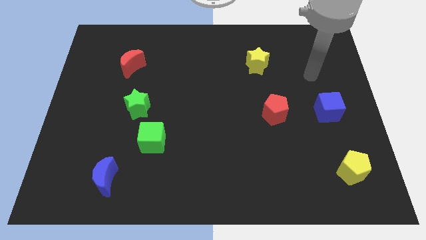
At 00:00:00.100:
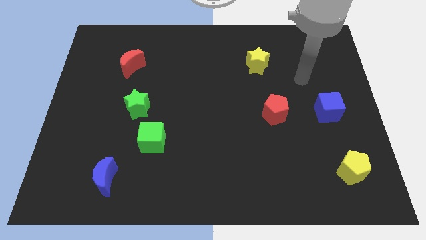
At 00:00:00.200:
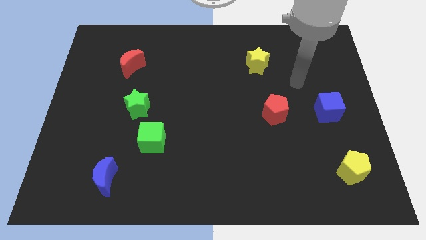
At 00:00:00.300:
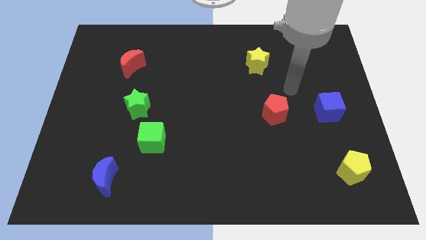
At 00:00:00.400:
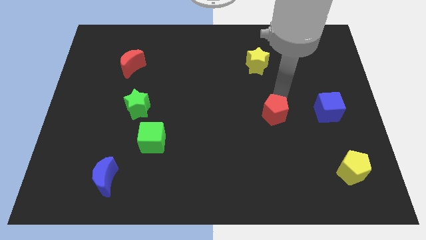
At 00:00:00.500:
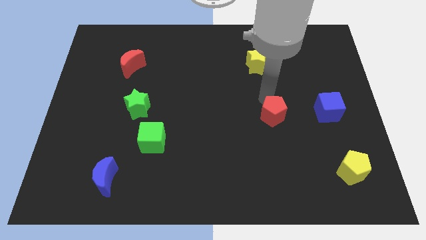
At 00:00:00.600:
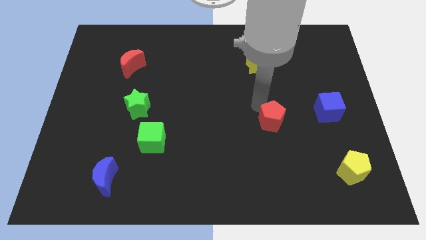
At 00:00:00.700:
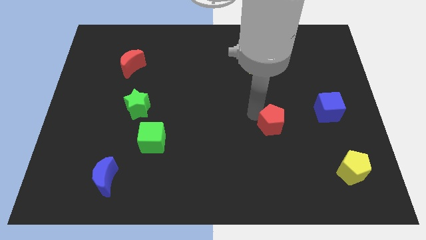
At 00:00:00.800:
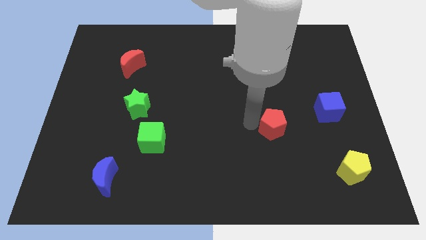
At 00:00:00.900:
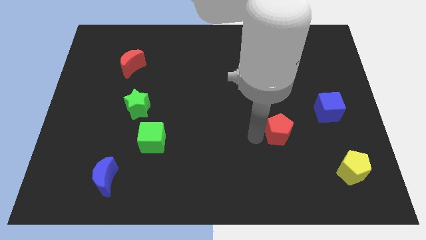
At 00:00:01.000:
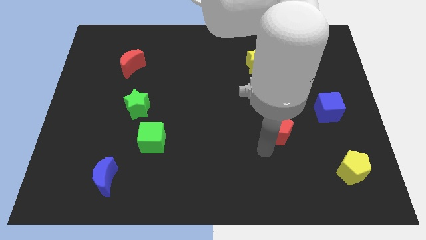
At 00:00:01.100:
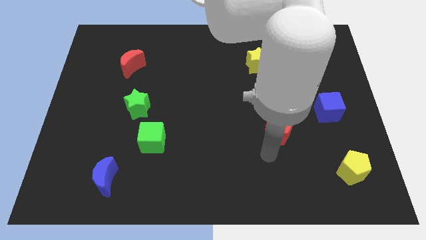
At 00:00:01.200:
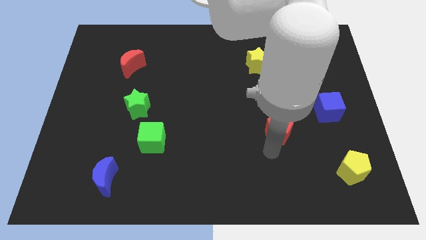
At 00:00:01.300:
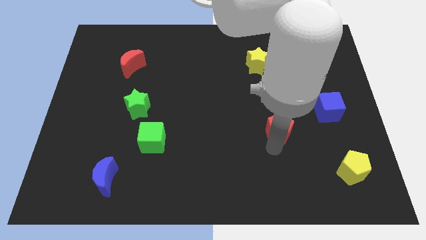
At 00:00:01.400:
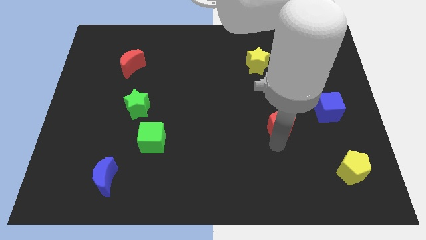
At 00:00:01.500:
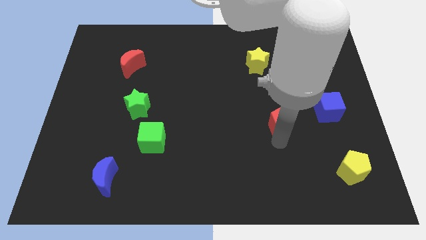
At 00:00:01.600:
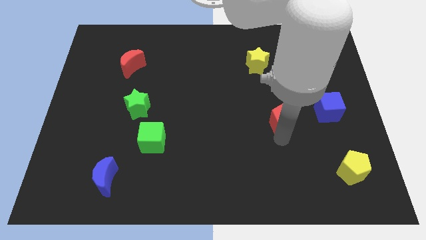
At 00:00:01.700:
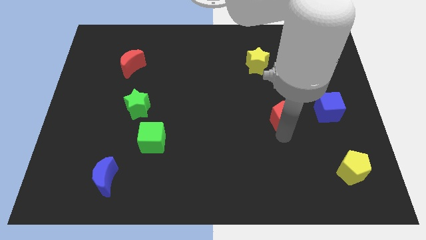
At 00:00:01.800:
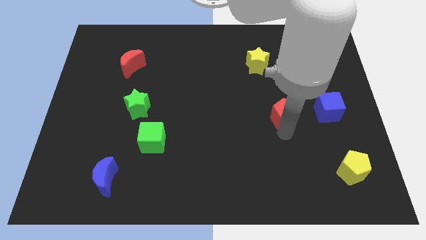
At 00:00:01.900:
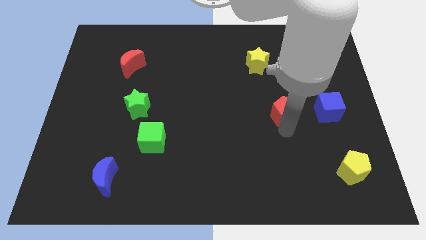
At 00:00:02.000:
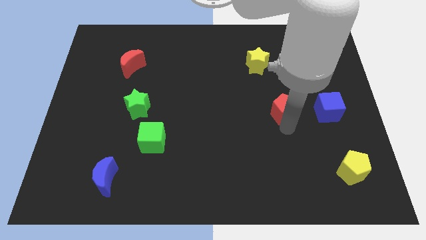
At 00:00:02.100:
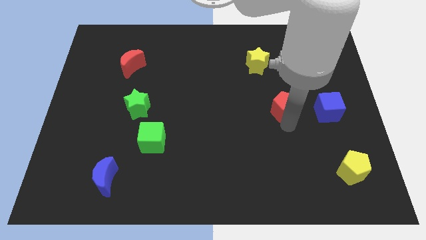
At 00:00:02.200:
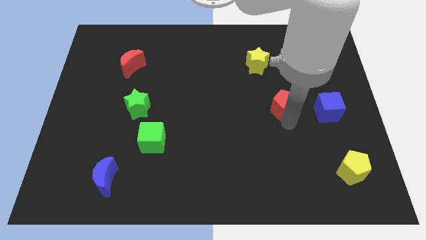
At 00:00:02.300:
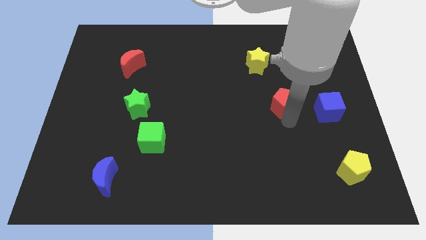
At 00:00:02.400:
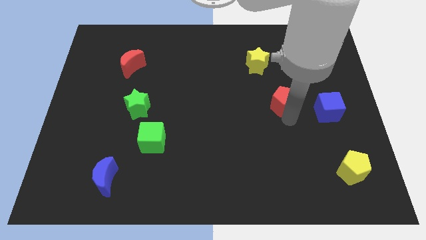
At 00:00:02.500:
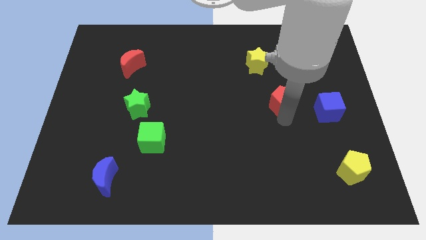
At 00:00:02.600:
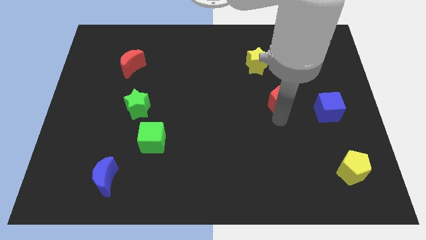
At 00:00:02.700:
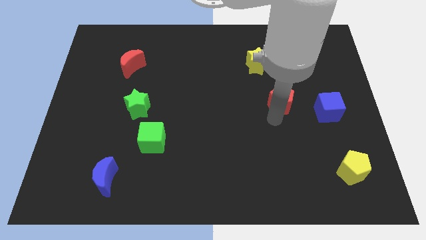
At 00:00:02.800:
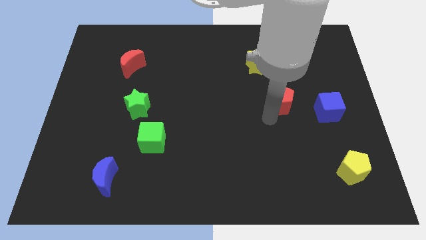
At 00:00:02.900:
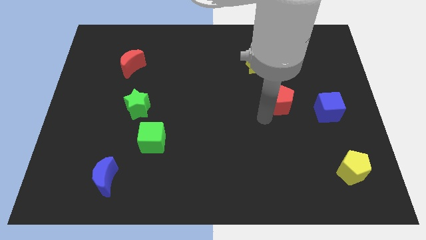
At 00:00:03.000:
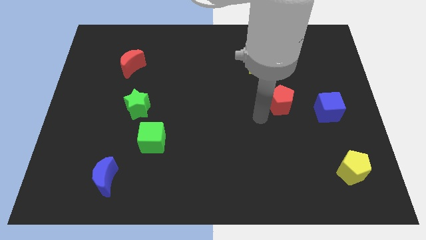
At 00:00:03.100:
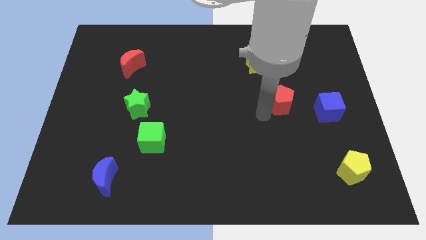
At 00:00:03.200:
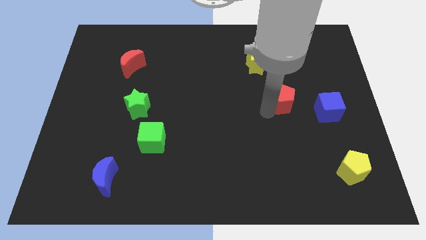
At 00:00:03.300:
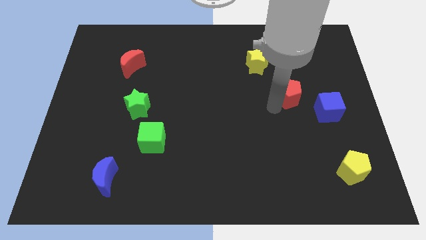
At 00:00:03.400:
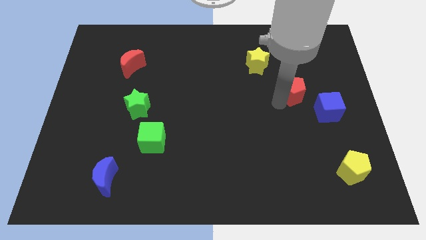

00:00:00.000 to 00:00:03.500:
move the red pentagon a bit up and then to the right

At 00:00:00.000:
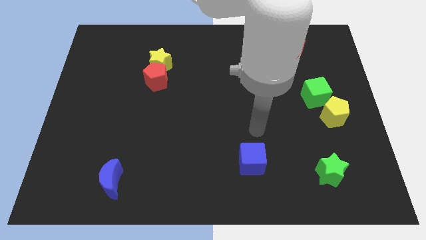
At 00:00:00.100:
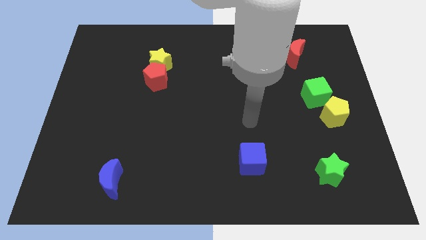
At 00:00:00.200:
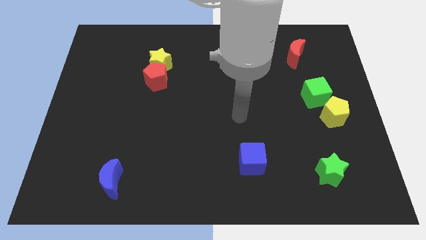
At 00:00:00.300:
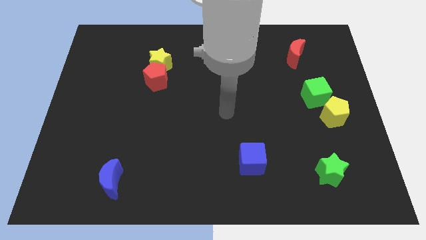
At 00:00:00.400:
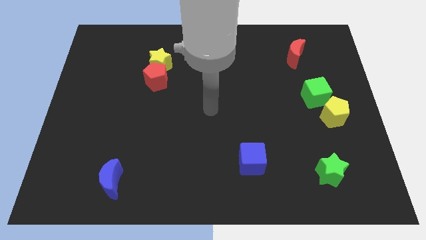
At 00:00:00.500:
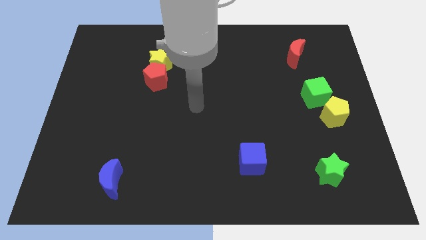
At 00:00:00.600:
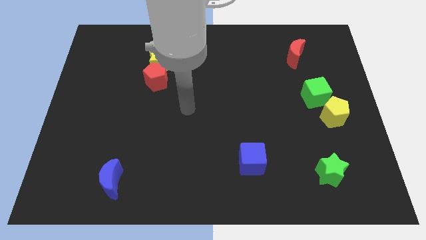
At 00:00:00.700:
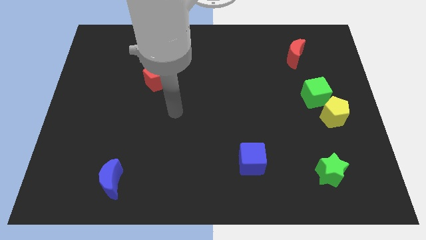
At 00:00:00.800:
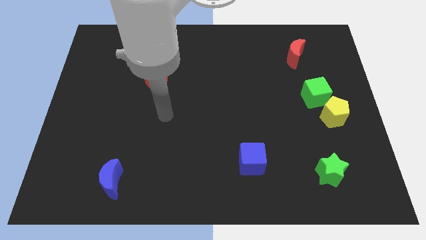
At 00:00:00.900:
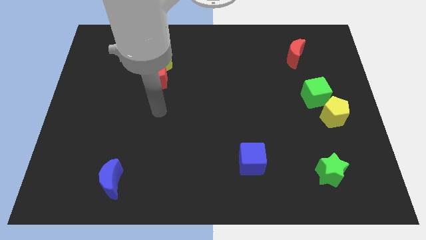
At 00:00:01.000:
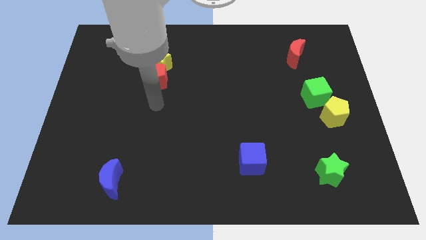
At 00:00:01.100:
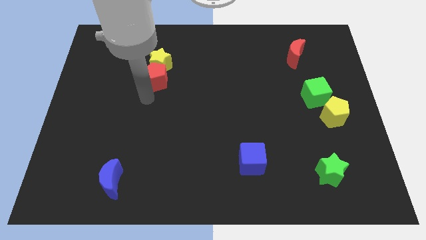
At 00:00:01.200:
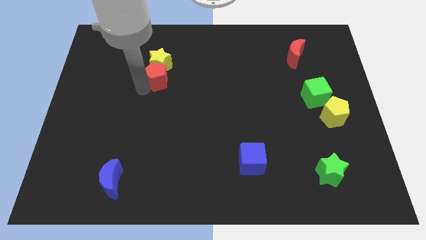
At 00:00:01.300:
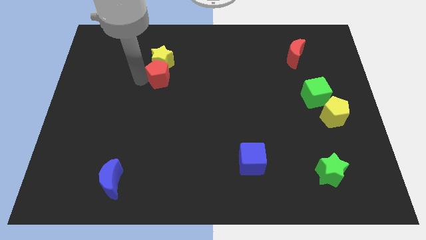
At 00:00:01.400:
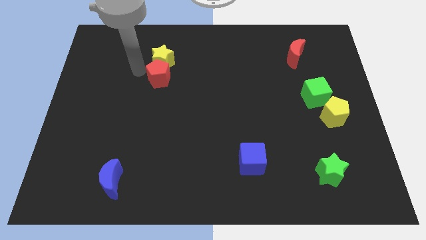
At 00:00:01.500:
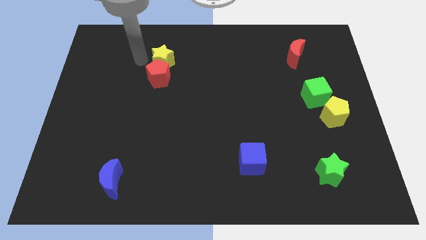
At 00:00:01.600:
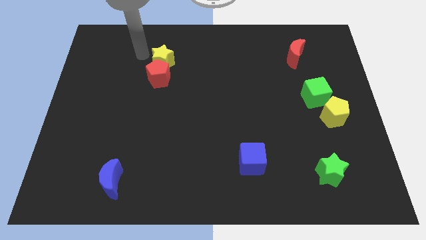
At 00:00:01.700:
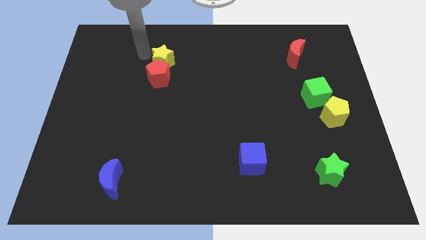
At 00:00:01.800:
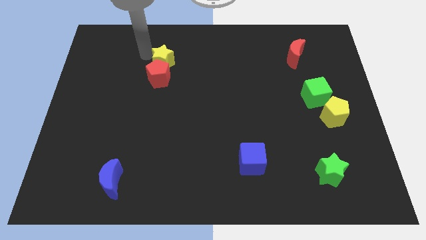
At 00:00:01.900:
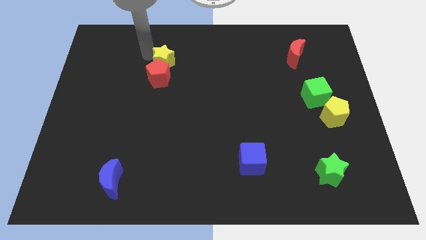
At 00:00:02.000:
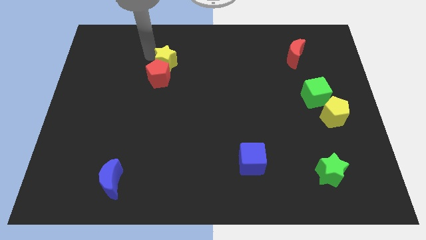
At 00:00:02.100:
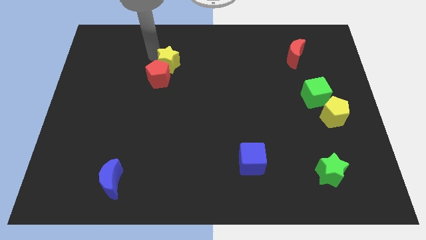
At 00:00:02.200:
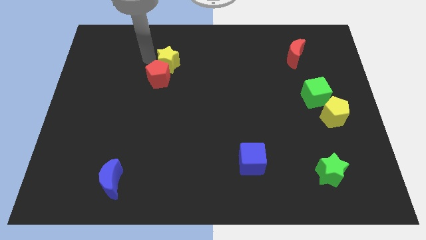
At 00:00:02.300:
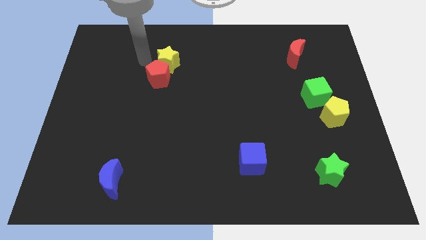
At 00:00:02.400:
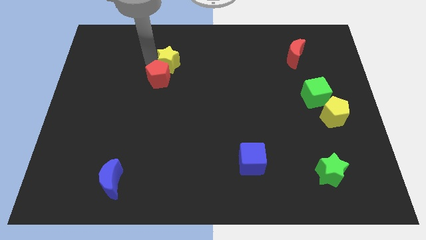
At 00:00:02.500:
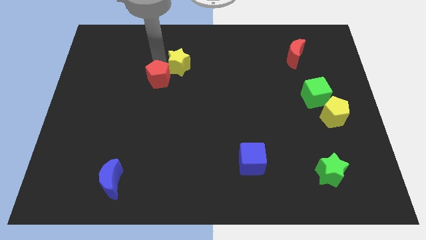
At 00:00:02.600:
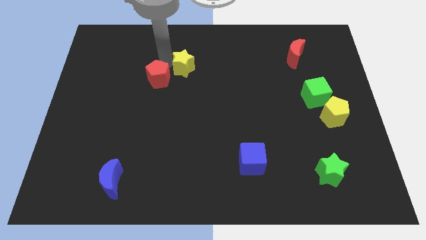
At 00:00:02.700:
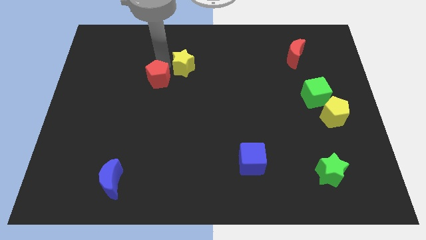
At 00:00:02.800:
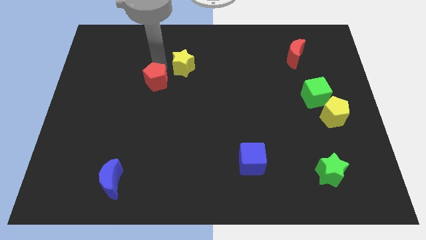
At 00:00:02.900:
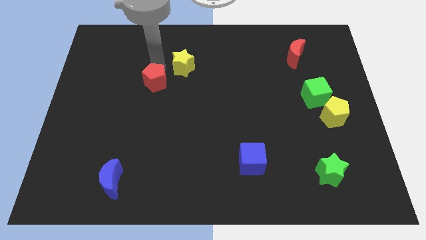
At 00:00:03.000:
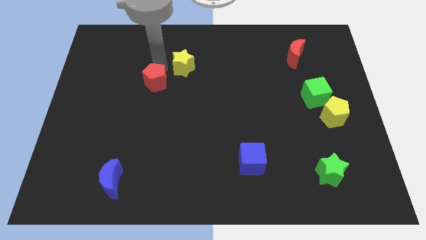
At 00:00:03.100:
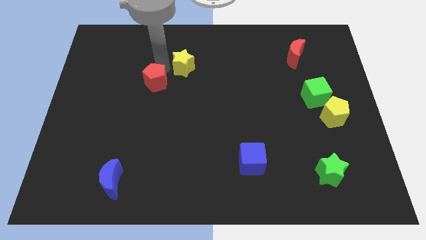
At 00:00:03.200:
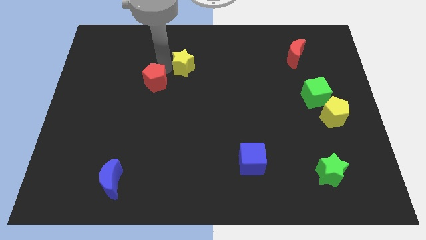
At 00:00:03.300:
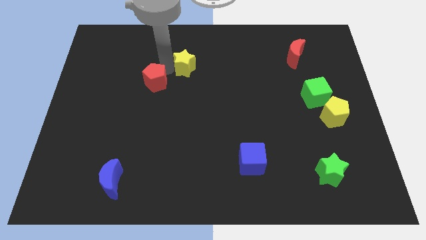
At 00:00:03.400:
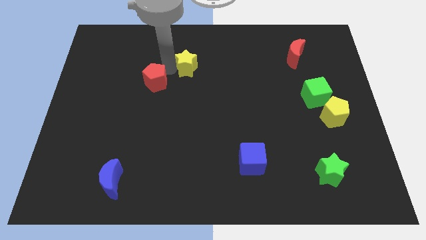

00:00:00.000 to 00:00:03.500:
move the yellow star to the right slightly

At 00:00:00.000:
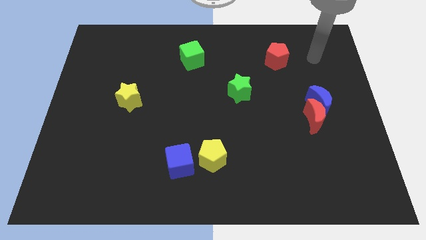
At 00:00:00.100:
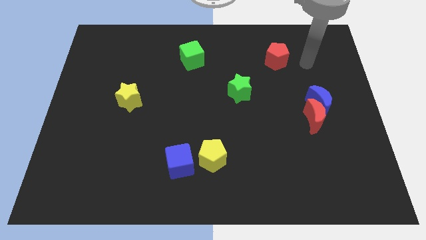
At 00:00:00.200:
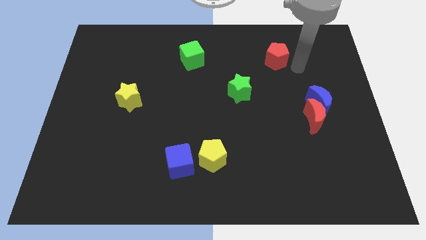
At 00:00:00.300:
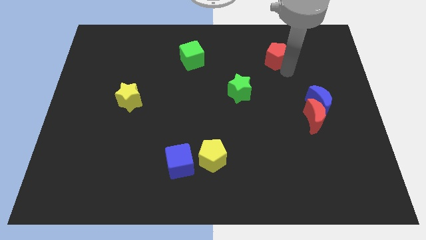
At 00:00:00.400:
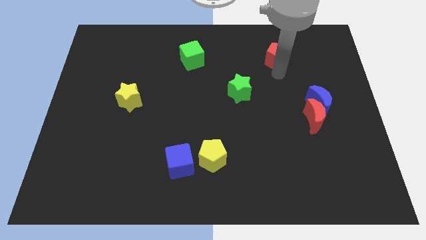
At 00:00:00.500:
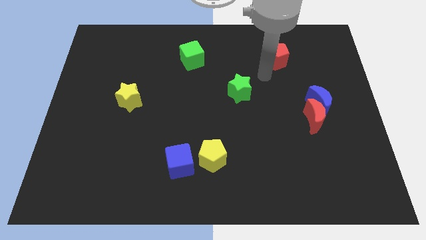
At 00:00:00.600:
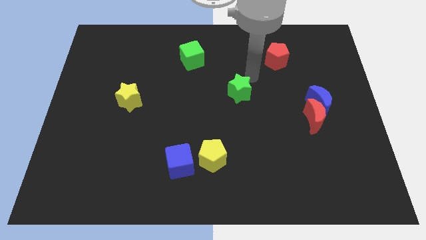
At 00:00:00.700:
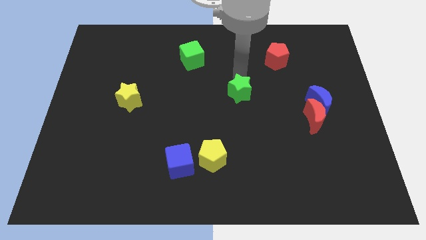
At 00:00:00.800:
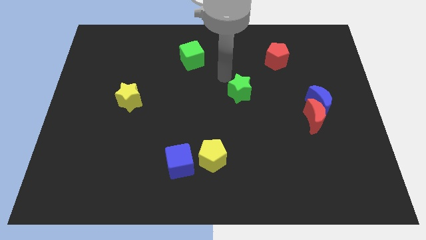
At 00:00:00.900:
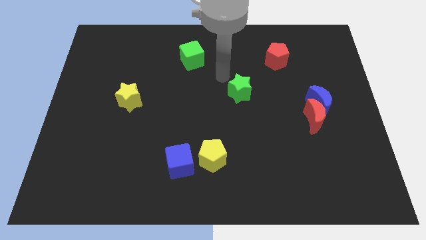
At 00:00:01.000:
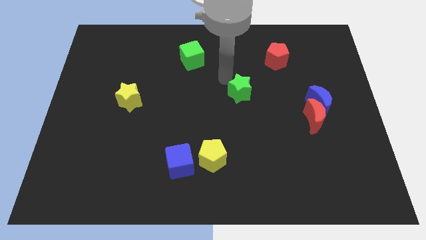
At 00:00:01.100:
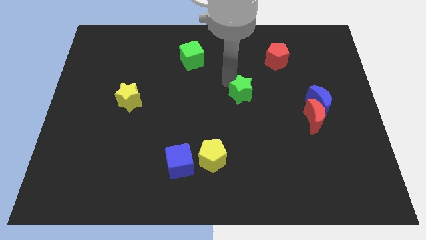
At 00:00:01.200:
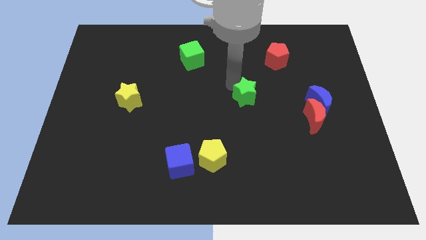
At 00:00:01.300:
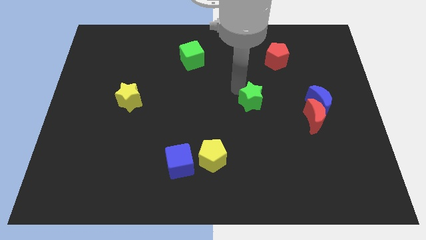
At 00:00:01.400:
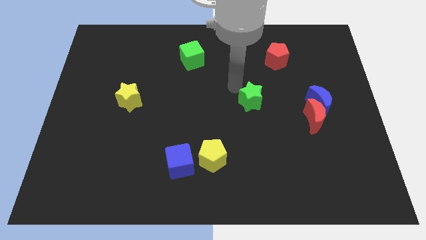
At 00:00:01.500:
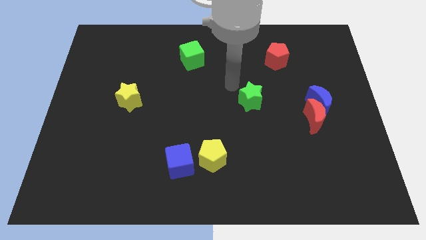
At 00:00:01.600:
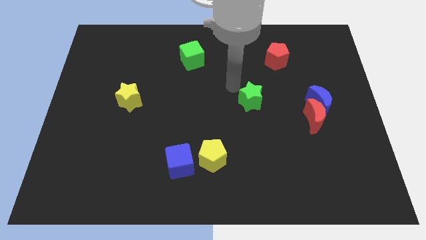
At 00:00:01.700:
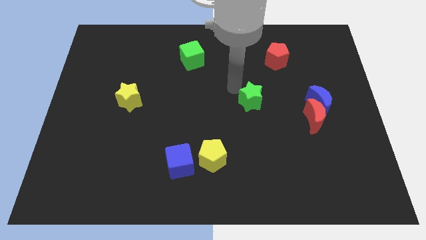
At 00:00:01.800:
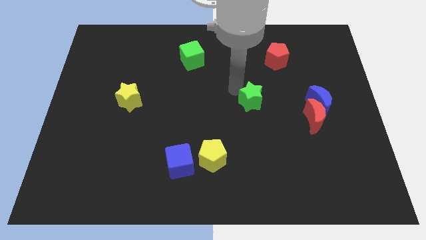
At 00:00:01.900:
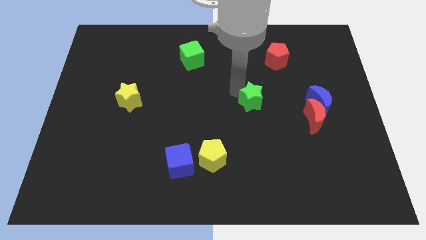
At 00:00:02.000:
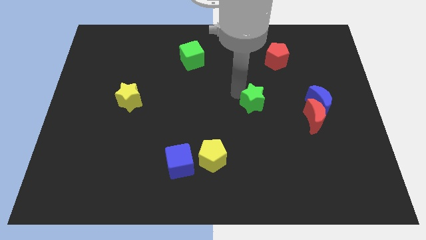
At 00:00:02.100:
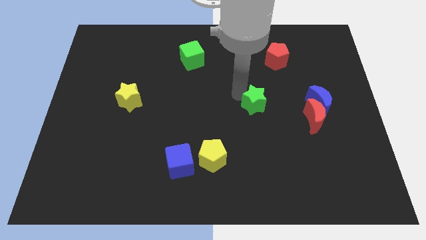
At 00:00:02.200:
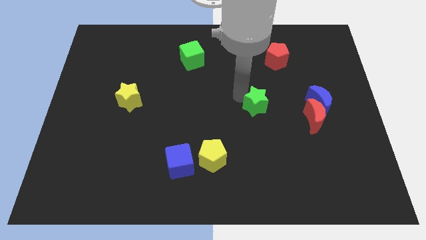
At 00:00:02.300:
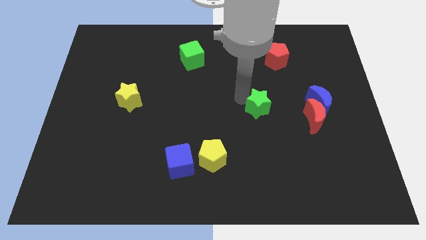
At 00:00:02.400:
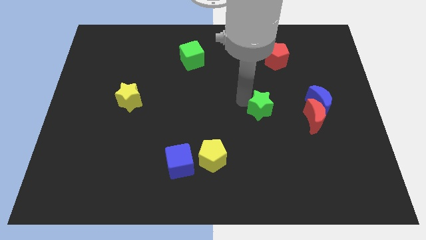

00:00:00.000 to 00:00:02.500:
slide the green star downwards and then right somewhat
